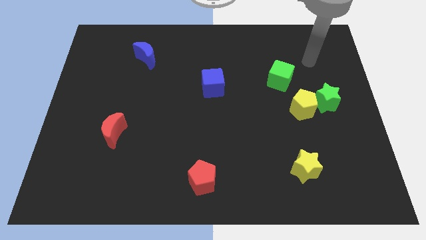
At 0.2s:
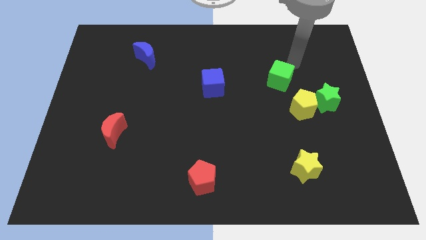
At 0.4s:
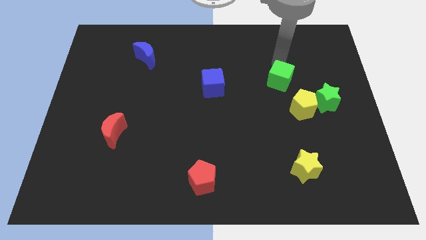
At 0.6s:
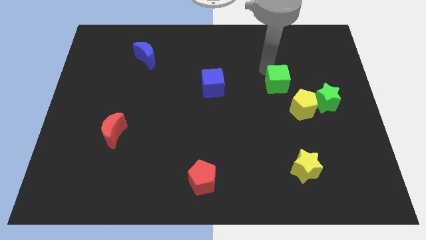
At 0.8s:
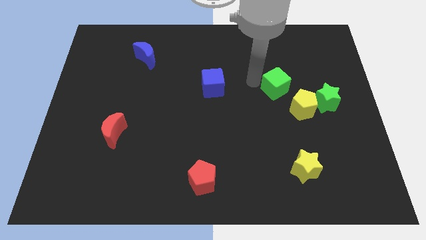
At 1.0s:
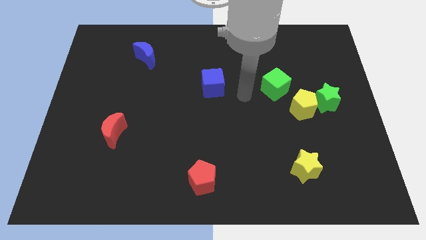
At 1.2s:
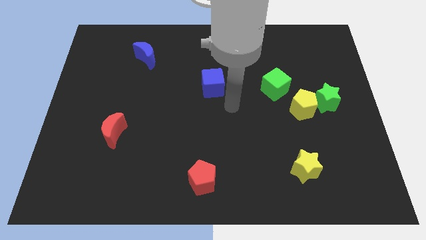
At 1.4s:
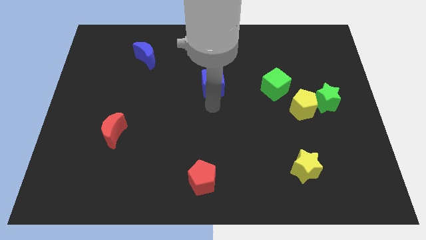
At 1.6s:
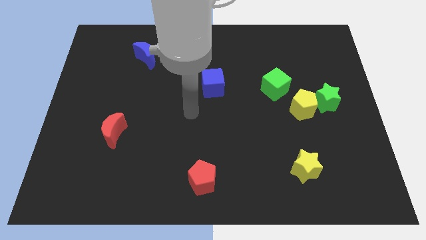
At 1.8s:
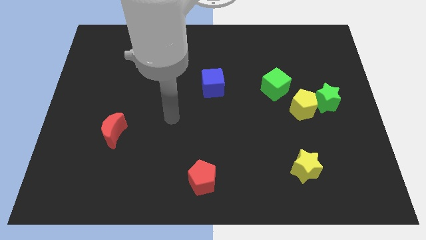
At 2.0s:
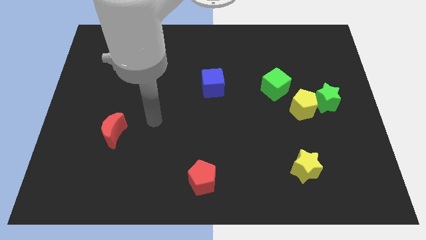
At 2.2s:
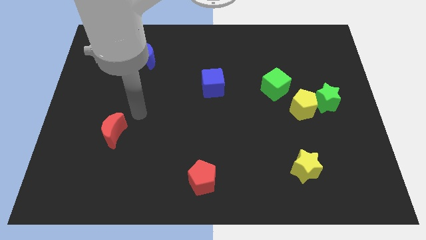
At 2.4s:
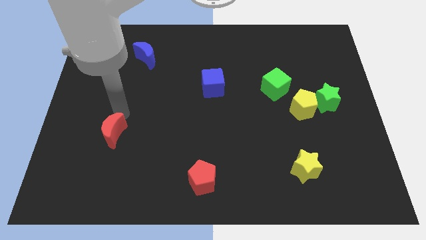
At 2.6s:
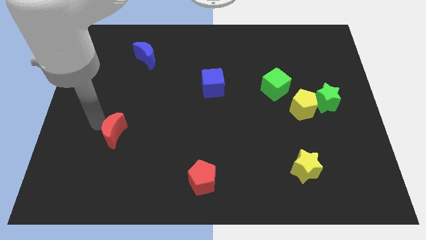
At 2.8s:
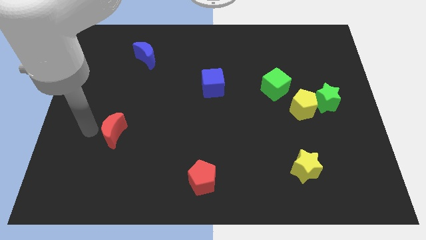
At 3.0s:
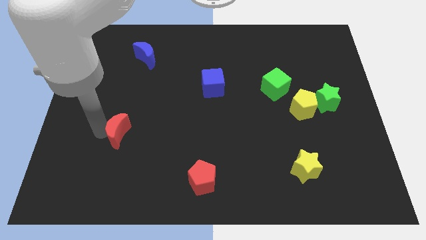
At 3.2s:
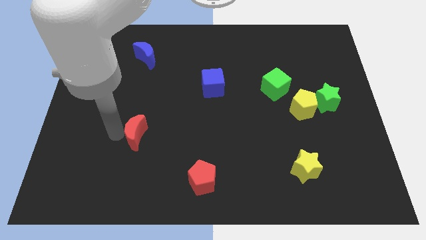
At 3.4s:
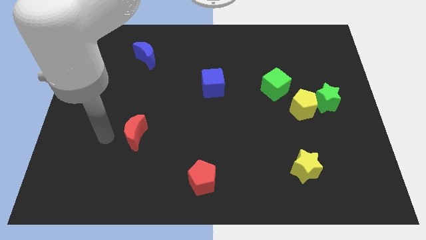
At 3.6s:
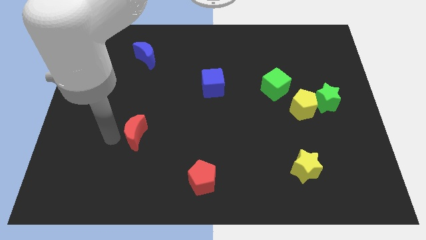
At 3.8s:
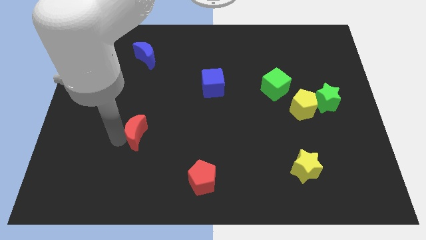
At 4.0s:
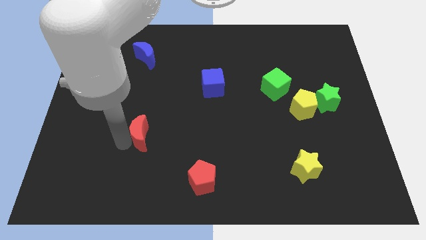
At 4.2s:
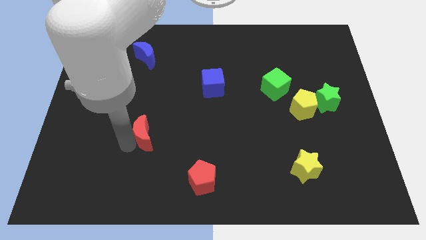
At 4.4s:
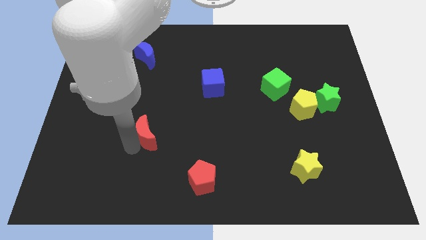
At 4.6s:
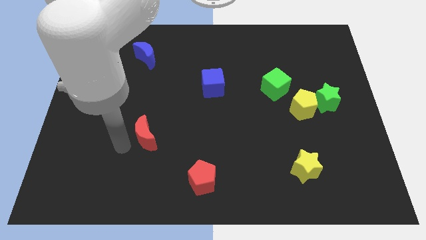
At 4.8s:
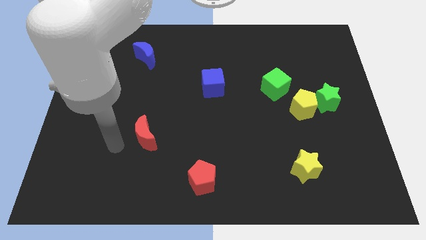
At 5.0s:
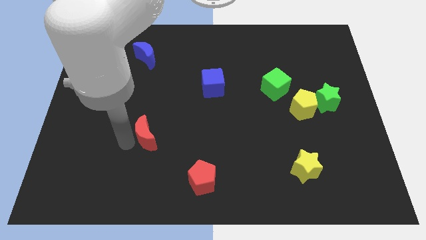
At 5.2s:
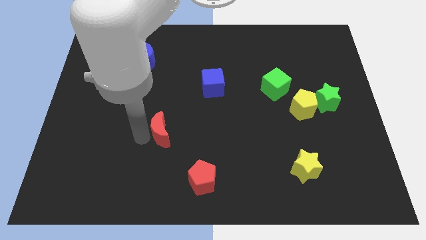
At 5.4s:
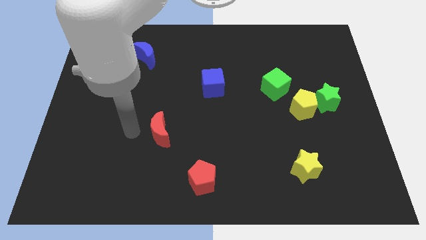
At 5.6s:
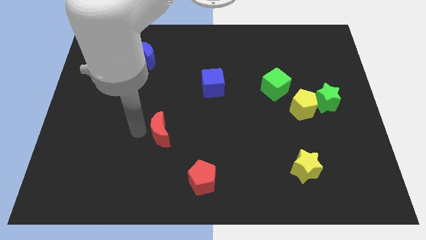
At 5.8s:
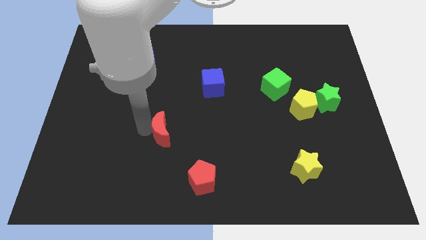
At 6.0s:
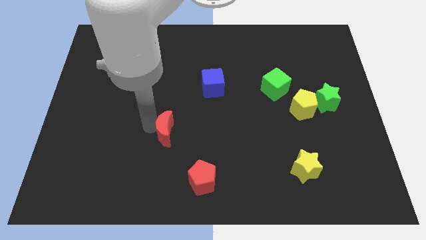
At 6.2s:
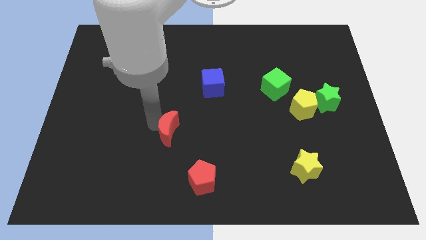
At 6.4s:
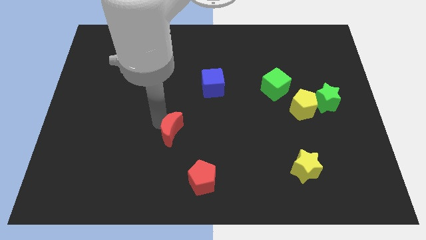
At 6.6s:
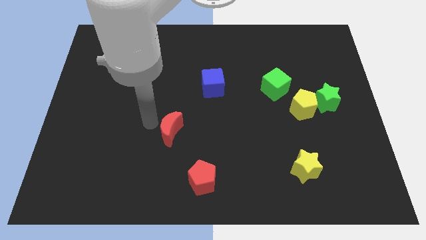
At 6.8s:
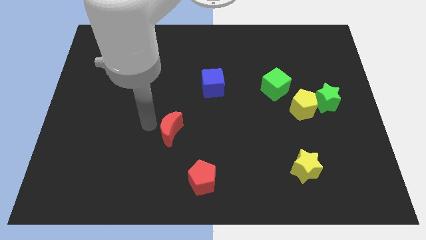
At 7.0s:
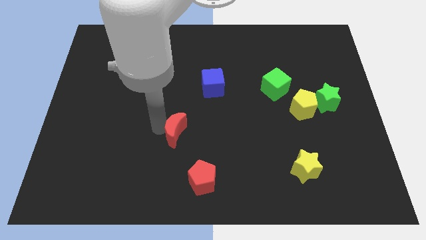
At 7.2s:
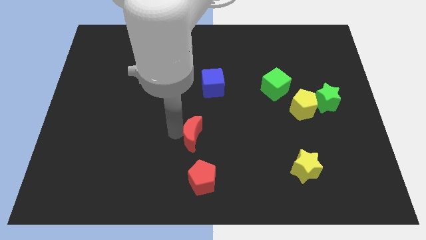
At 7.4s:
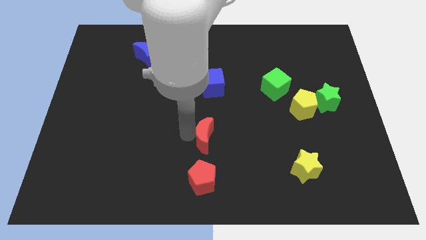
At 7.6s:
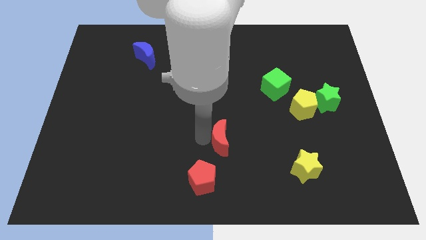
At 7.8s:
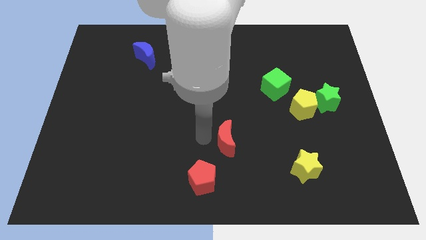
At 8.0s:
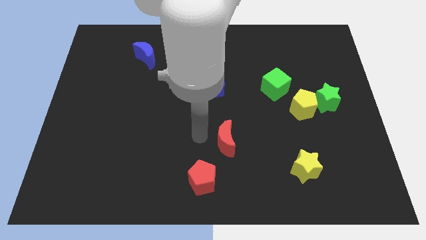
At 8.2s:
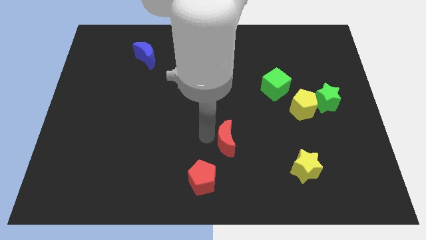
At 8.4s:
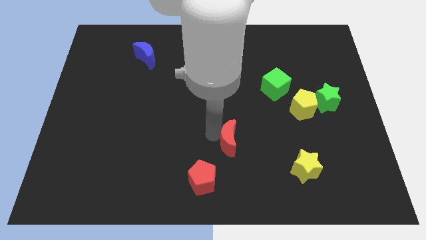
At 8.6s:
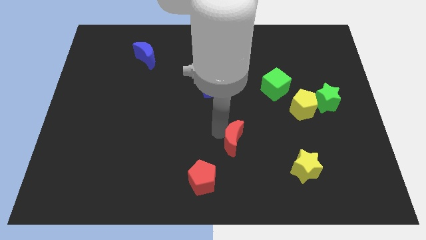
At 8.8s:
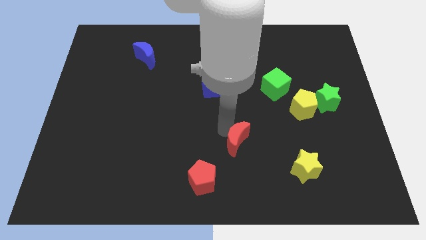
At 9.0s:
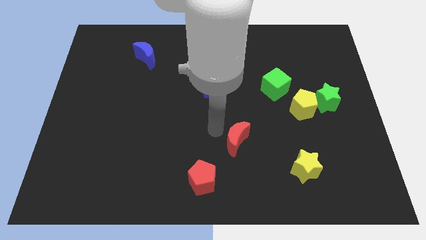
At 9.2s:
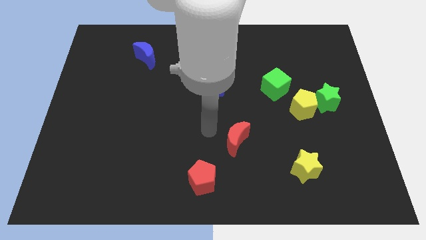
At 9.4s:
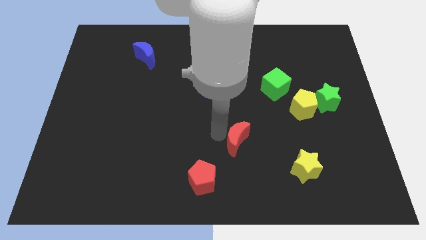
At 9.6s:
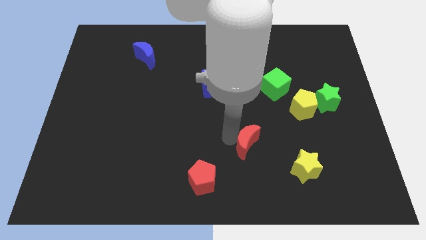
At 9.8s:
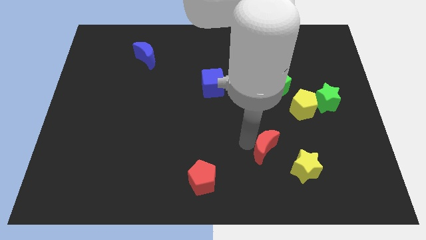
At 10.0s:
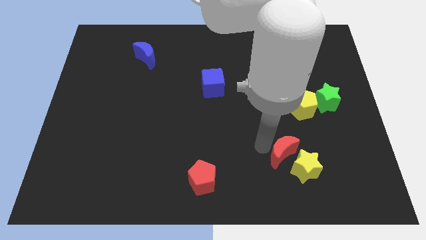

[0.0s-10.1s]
slide the red moon close to the yellow star

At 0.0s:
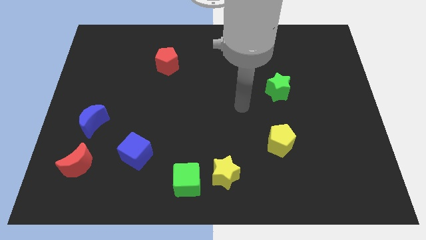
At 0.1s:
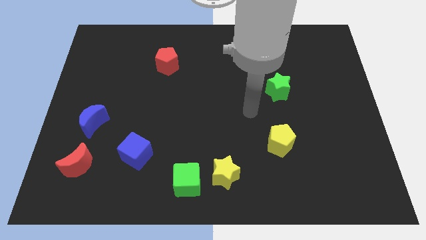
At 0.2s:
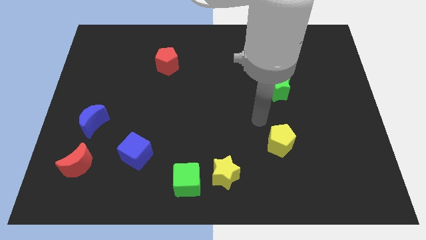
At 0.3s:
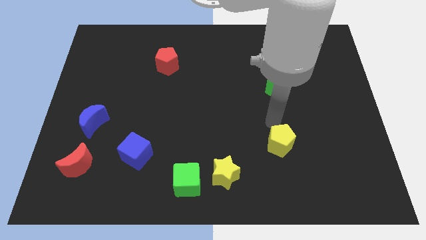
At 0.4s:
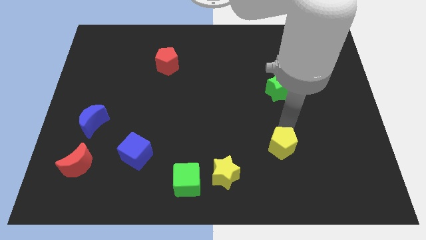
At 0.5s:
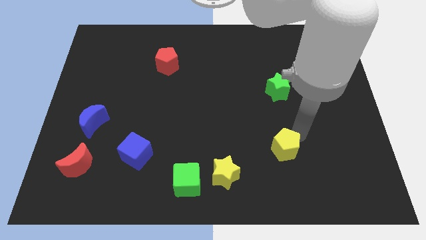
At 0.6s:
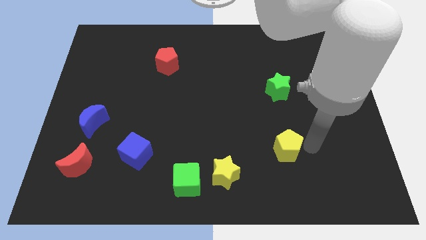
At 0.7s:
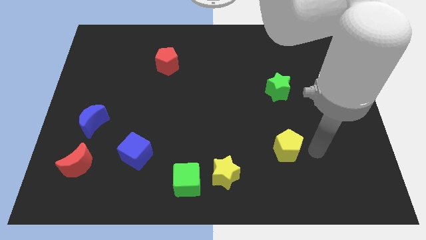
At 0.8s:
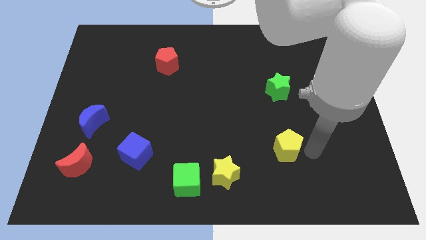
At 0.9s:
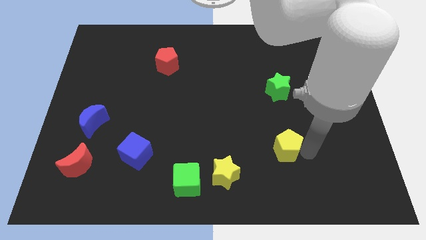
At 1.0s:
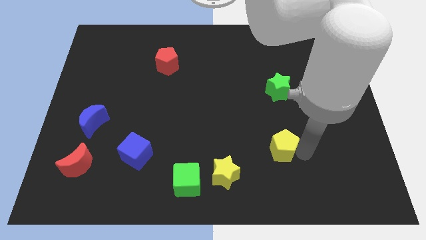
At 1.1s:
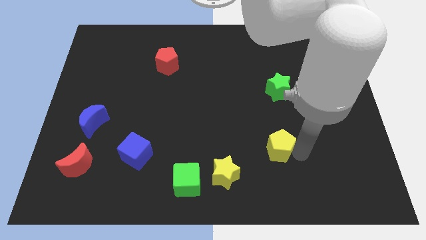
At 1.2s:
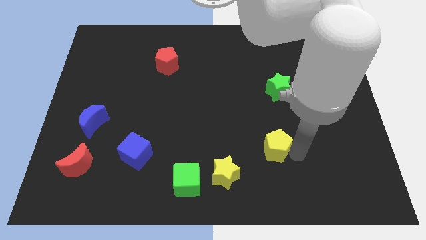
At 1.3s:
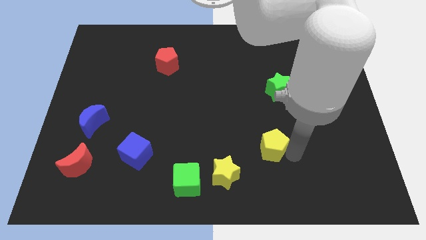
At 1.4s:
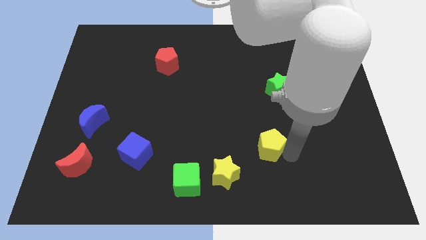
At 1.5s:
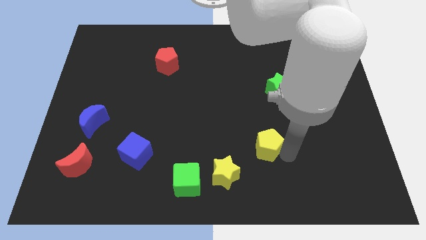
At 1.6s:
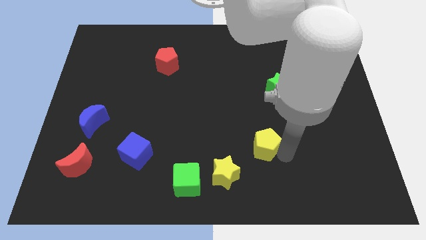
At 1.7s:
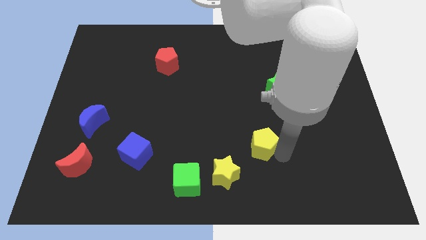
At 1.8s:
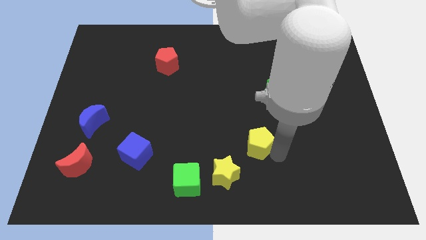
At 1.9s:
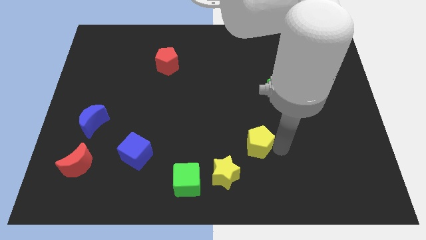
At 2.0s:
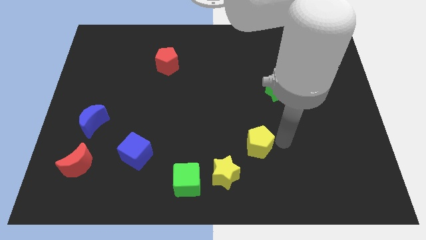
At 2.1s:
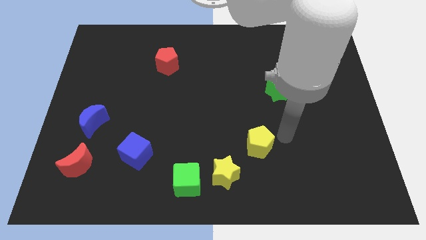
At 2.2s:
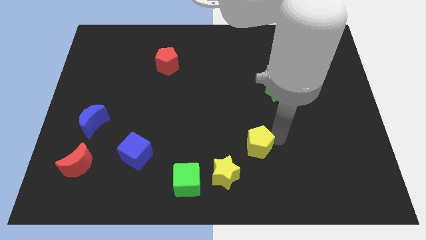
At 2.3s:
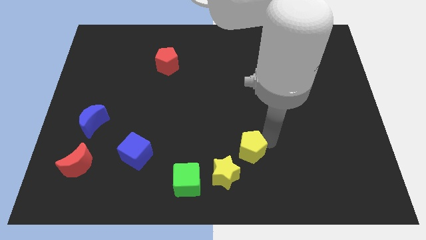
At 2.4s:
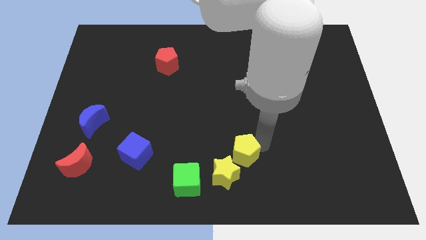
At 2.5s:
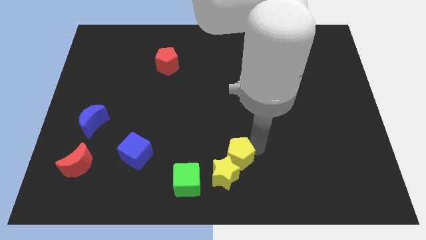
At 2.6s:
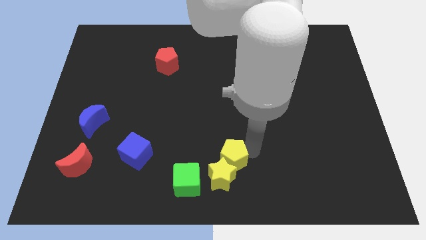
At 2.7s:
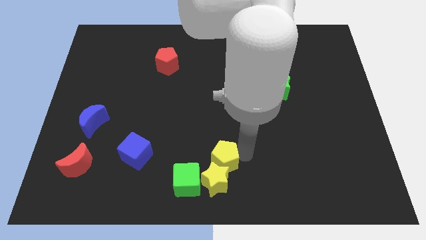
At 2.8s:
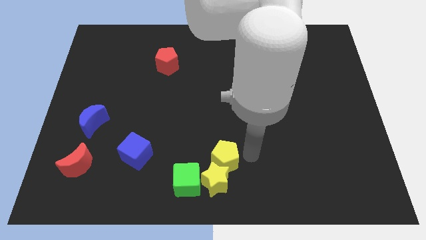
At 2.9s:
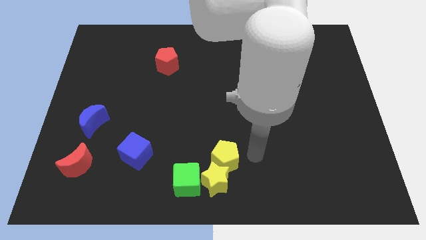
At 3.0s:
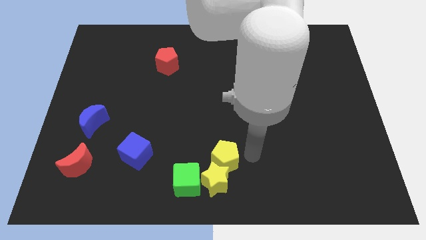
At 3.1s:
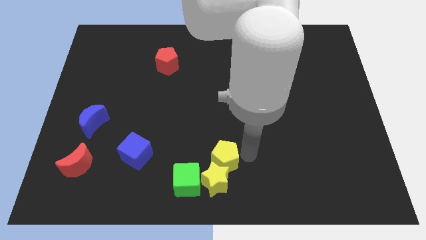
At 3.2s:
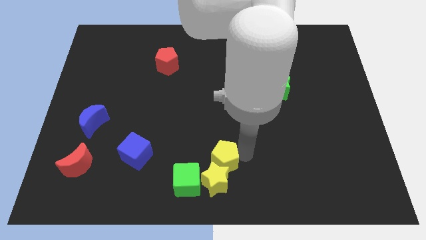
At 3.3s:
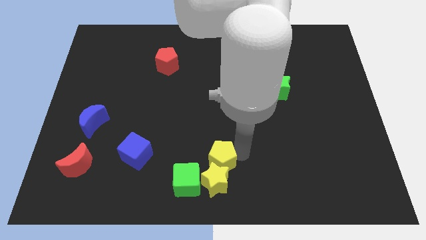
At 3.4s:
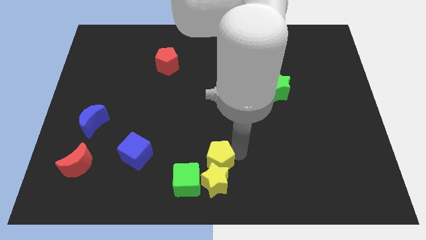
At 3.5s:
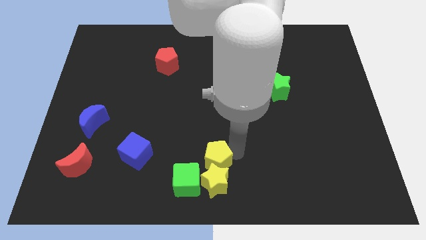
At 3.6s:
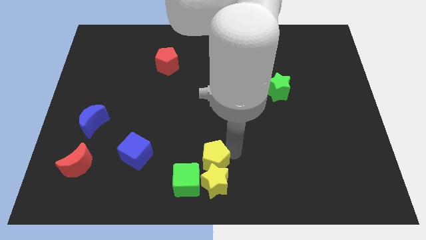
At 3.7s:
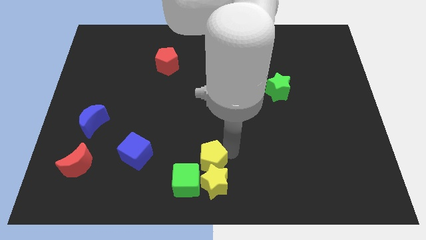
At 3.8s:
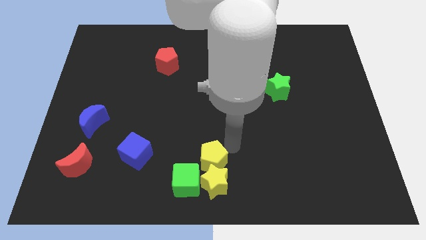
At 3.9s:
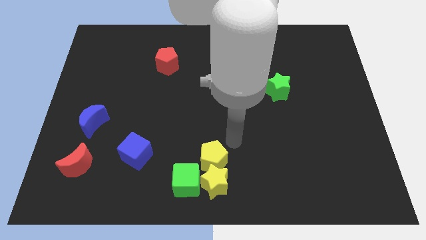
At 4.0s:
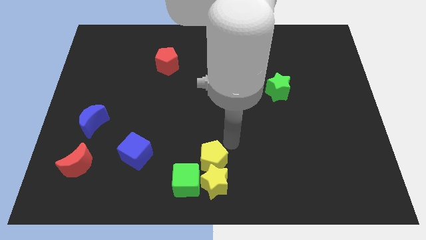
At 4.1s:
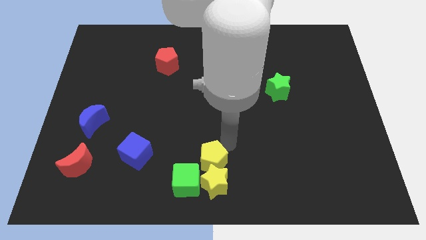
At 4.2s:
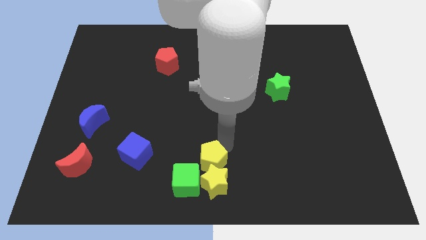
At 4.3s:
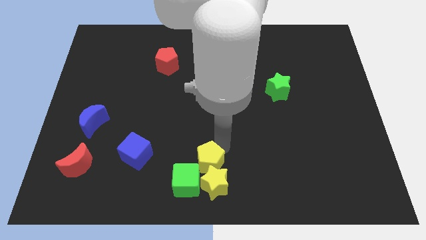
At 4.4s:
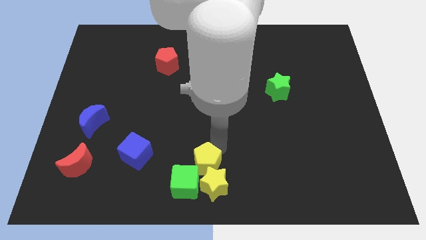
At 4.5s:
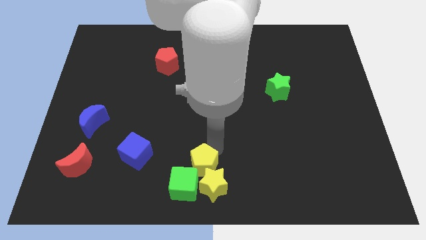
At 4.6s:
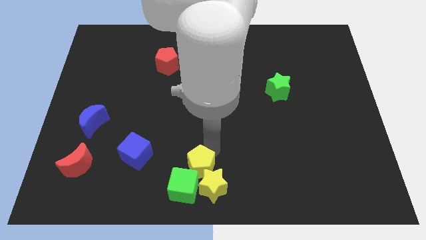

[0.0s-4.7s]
push the yellow pentagon to the green cube
